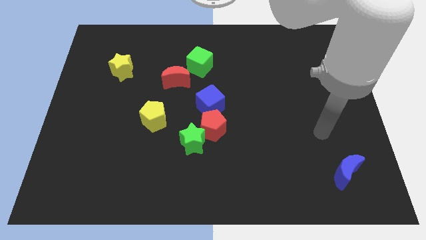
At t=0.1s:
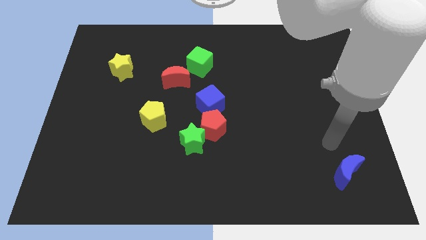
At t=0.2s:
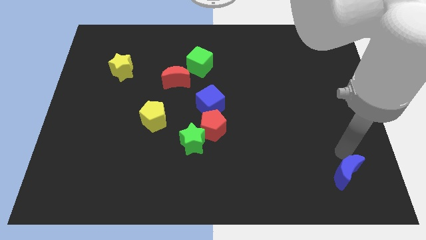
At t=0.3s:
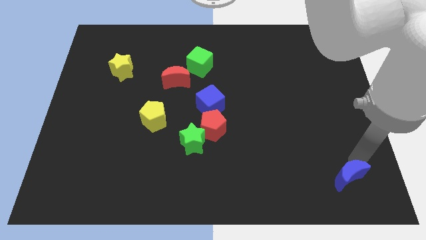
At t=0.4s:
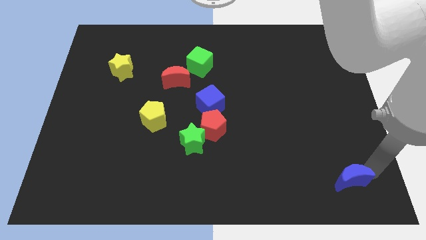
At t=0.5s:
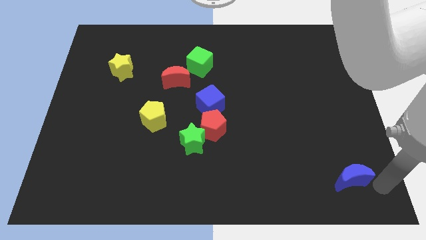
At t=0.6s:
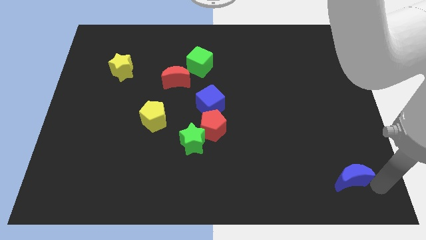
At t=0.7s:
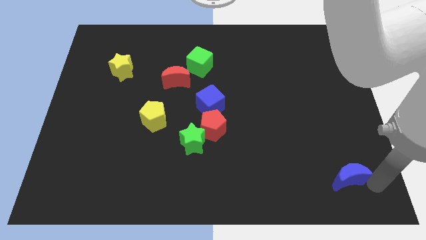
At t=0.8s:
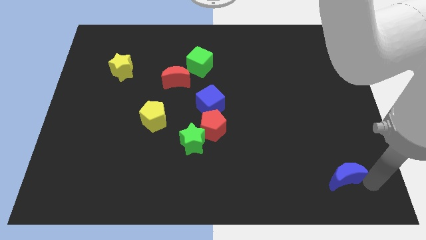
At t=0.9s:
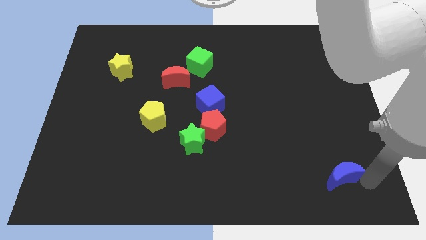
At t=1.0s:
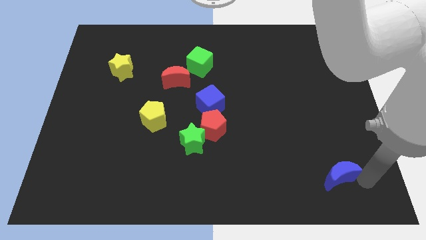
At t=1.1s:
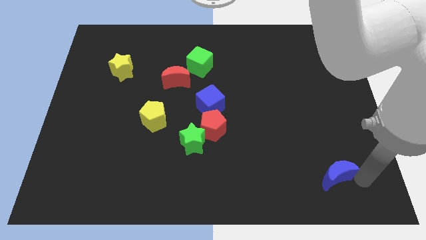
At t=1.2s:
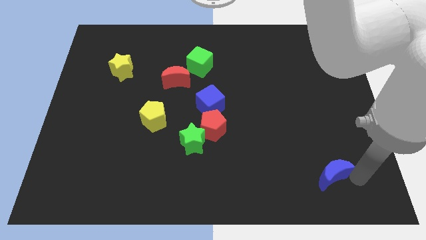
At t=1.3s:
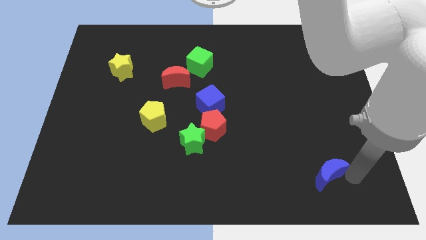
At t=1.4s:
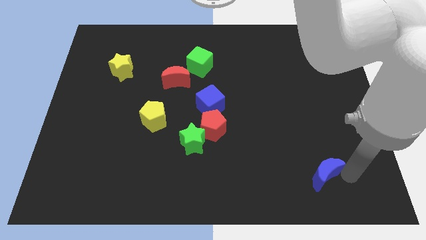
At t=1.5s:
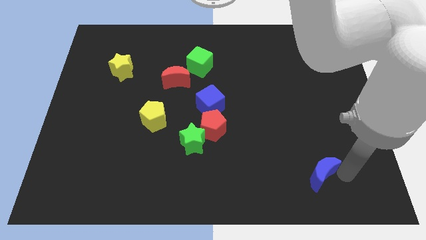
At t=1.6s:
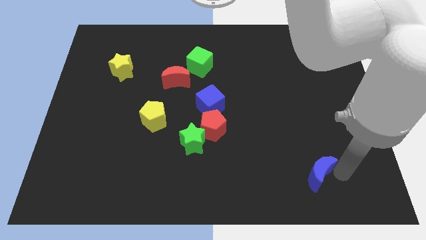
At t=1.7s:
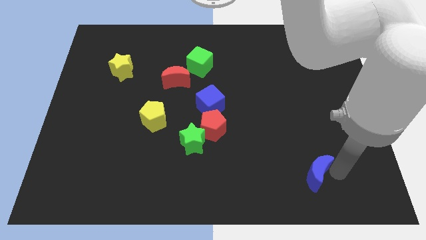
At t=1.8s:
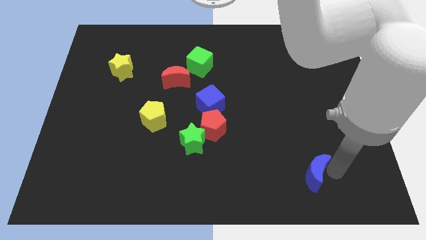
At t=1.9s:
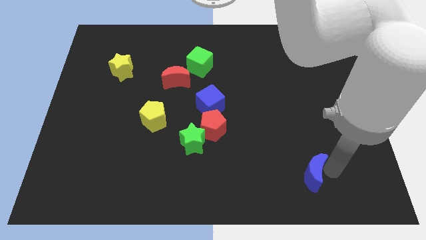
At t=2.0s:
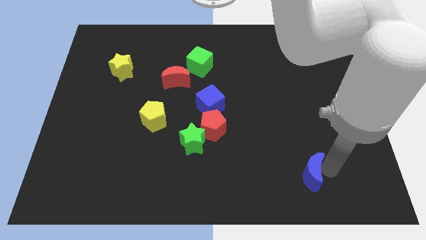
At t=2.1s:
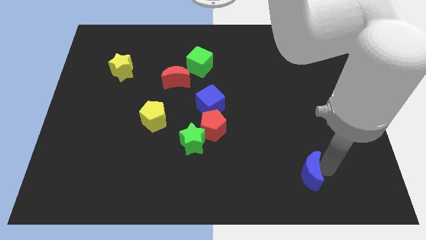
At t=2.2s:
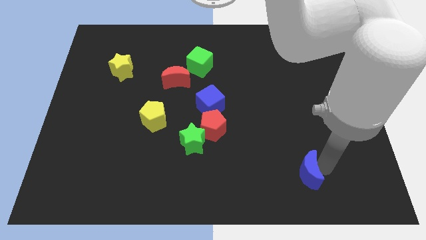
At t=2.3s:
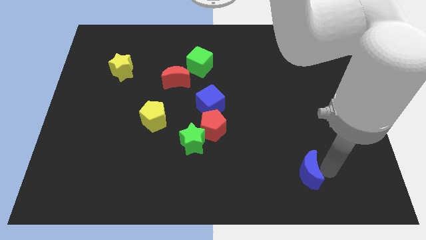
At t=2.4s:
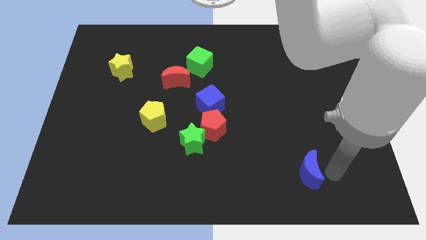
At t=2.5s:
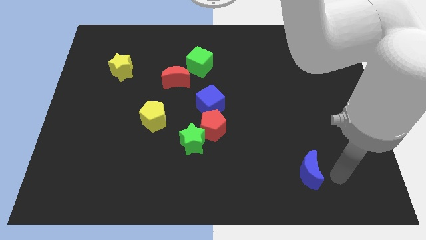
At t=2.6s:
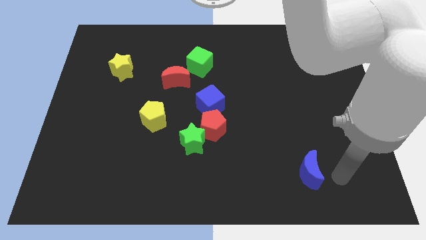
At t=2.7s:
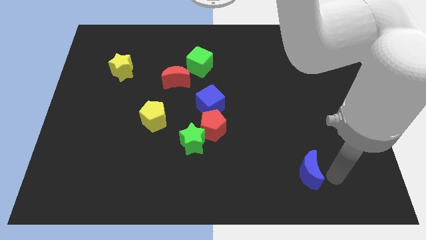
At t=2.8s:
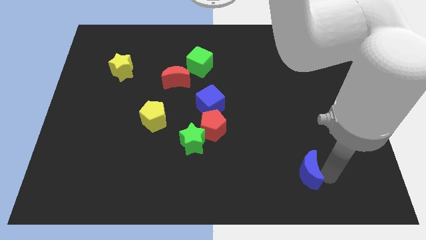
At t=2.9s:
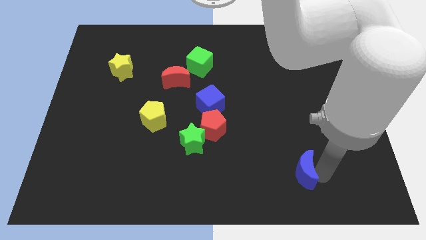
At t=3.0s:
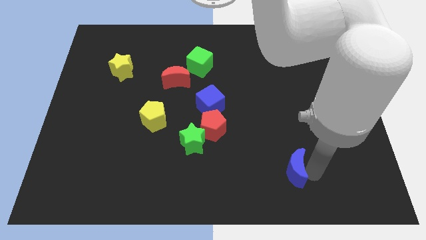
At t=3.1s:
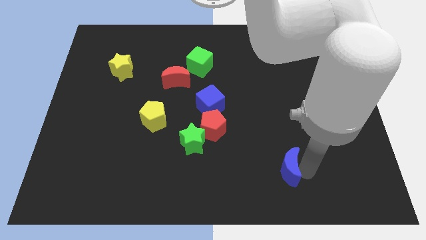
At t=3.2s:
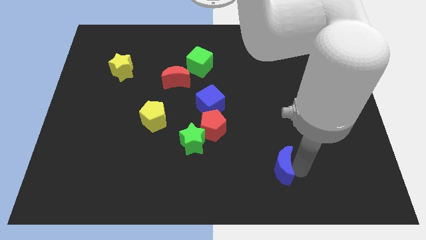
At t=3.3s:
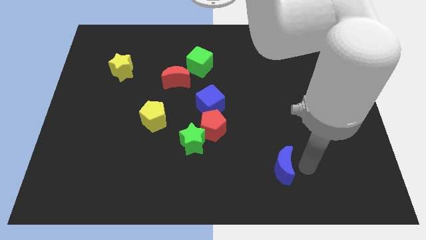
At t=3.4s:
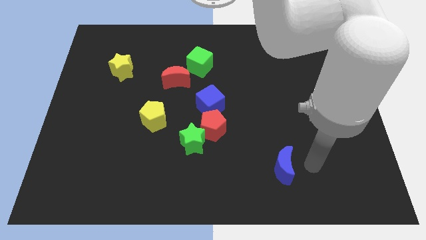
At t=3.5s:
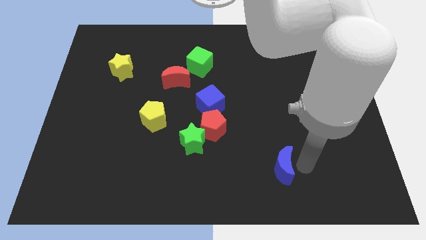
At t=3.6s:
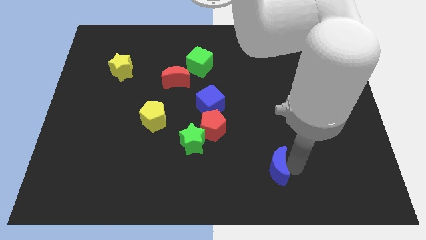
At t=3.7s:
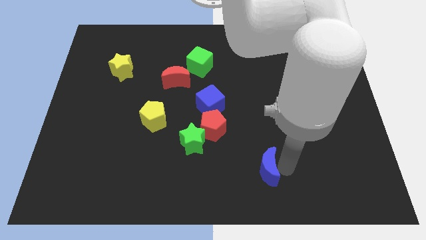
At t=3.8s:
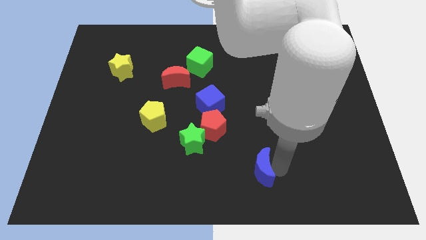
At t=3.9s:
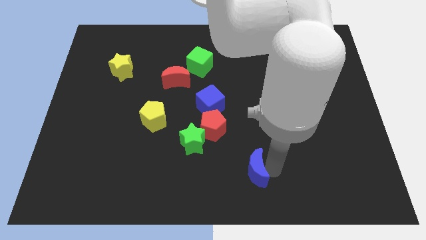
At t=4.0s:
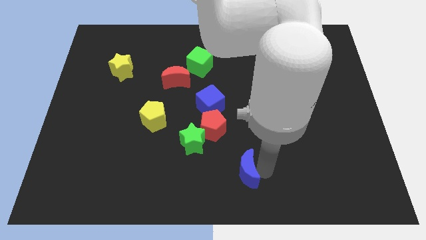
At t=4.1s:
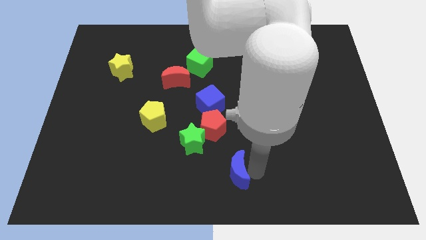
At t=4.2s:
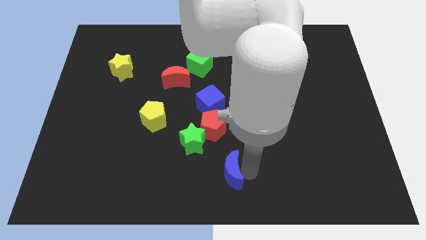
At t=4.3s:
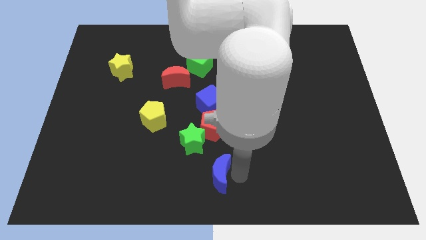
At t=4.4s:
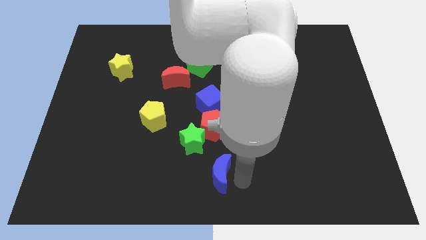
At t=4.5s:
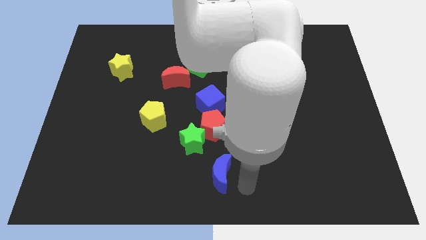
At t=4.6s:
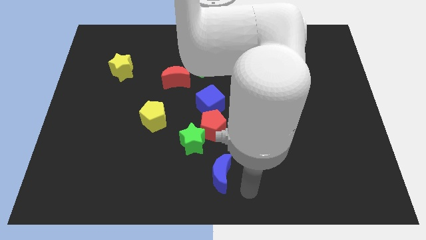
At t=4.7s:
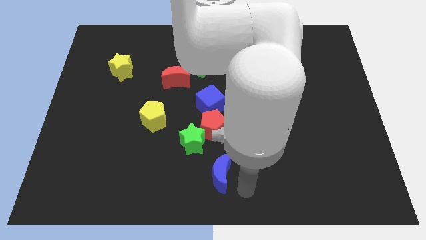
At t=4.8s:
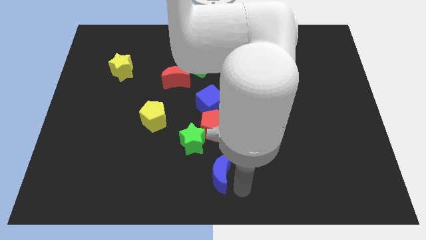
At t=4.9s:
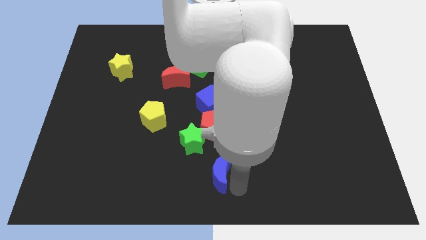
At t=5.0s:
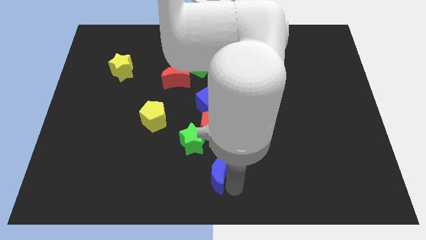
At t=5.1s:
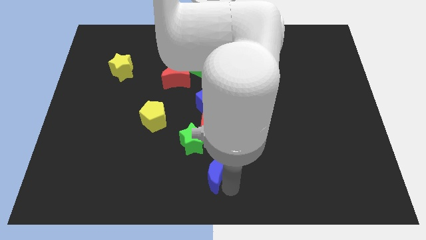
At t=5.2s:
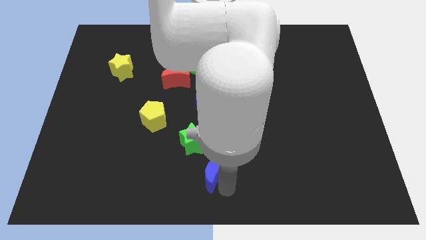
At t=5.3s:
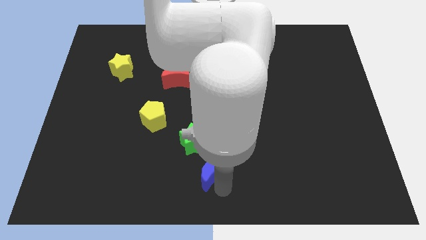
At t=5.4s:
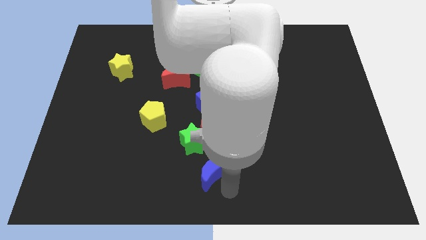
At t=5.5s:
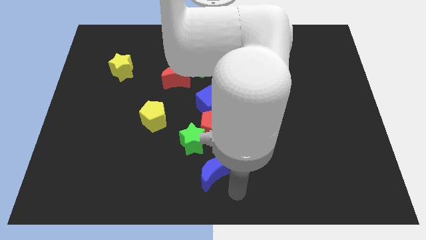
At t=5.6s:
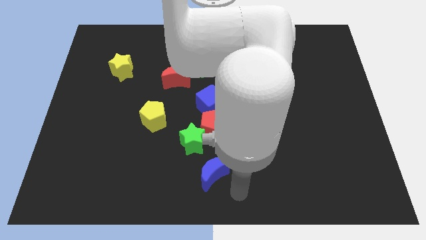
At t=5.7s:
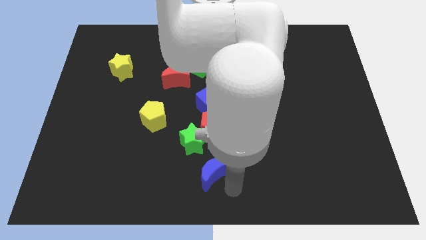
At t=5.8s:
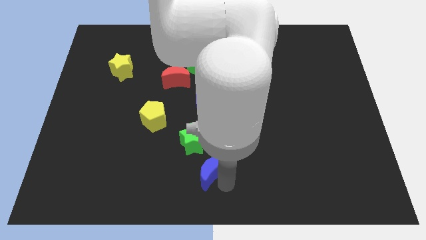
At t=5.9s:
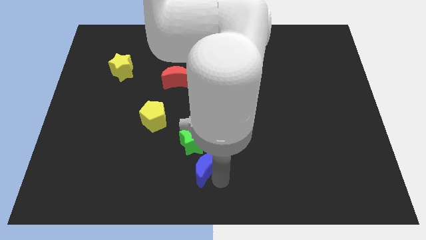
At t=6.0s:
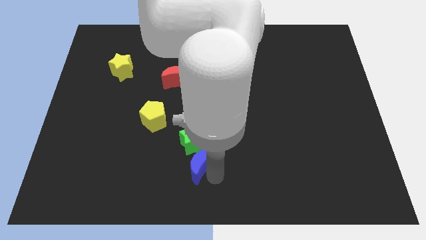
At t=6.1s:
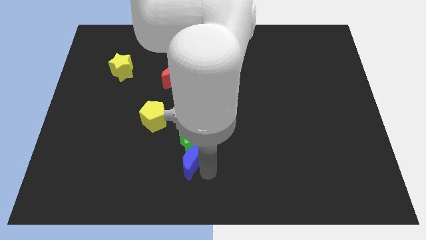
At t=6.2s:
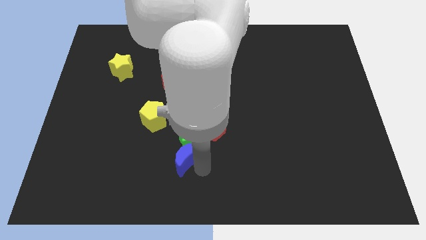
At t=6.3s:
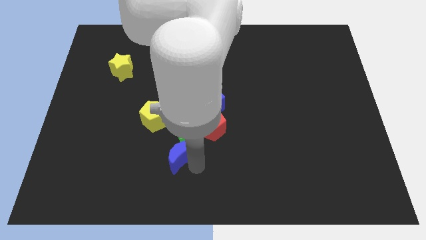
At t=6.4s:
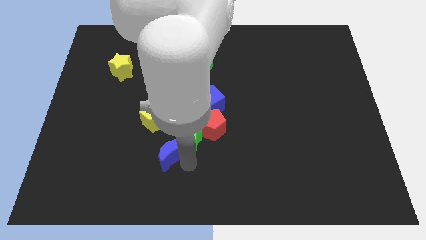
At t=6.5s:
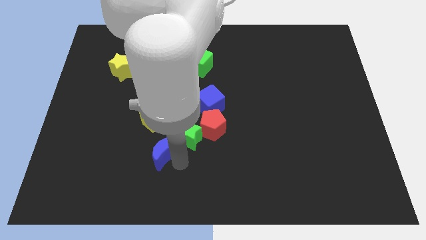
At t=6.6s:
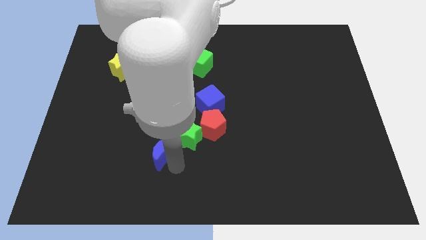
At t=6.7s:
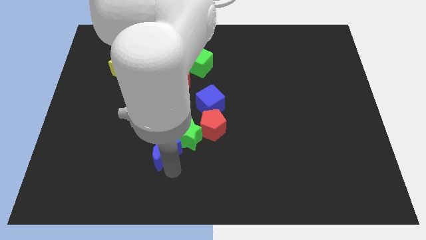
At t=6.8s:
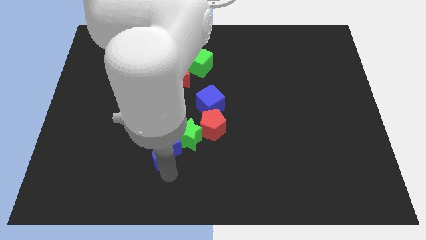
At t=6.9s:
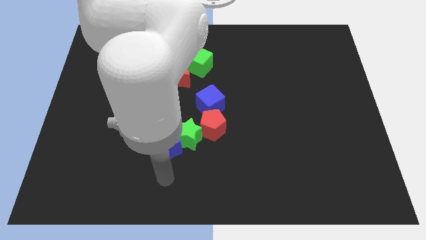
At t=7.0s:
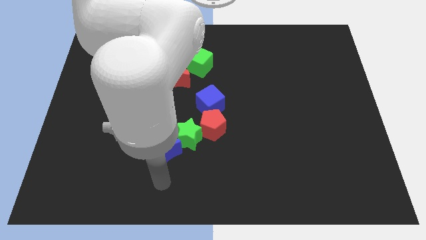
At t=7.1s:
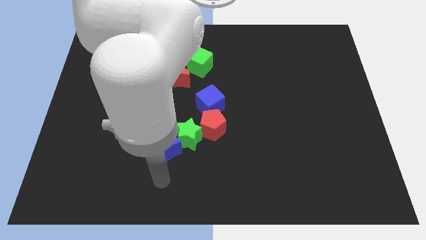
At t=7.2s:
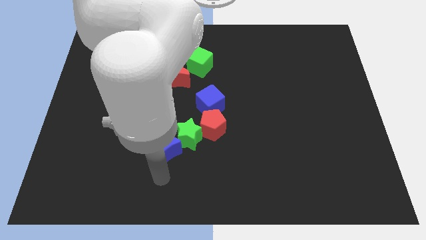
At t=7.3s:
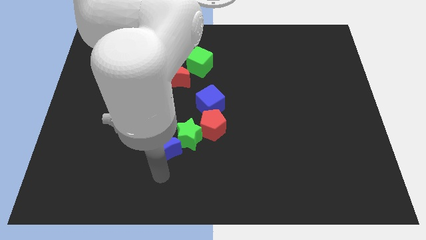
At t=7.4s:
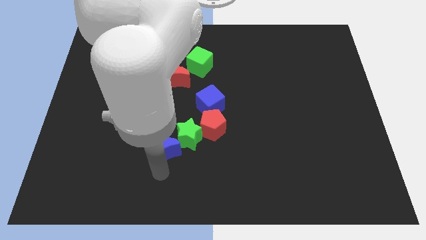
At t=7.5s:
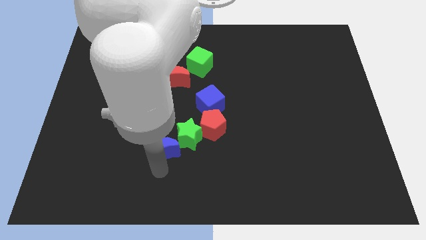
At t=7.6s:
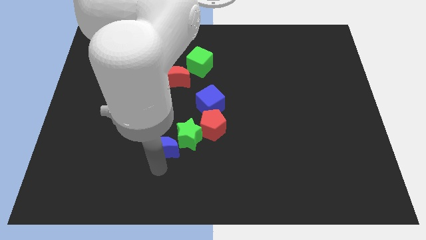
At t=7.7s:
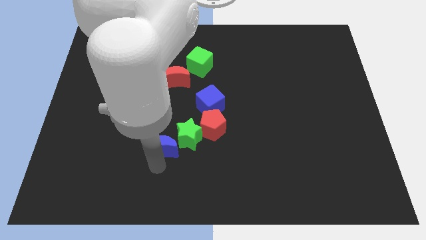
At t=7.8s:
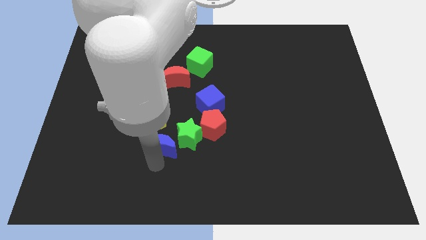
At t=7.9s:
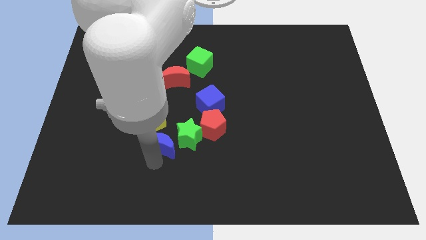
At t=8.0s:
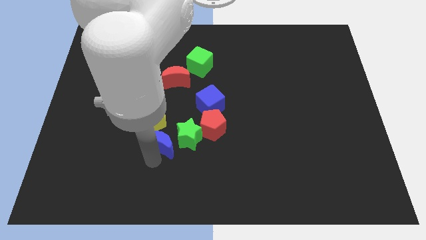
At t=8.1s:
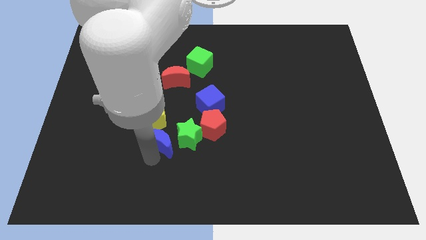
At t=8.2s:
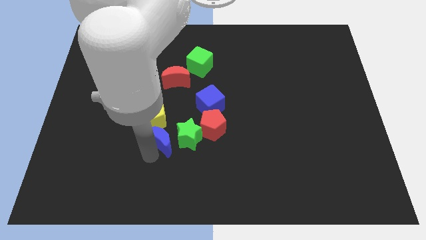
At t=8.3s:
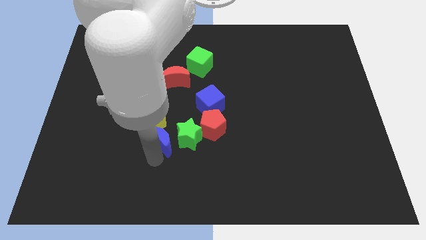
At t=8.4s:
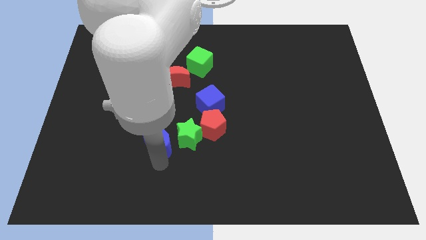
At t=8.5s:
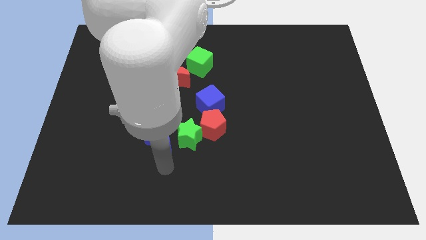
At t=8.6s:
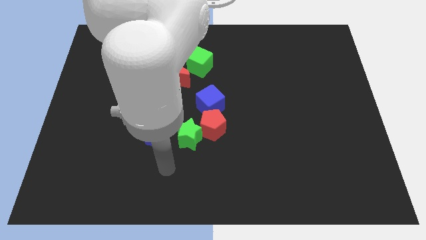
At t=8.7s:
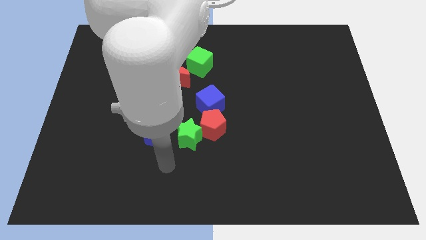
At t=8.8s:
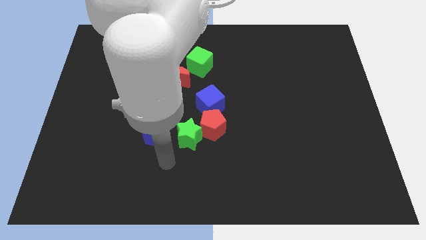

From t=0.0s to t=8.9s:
put the blue moon close to the yellow pentagon
